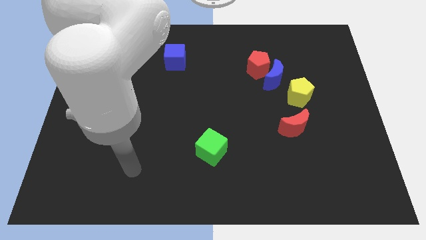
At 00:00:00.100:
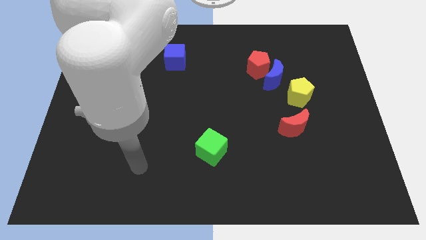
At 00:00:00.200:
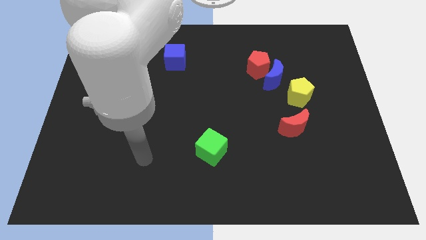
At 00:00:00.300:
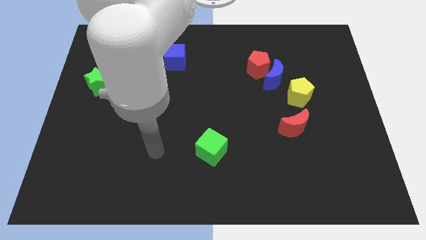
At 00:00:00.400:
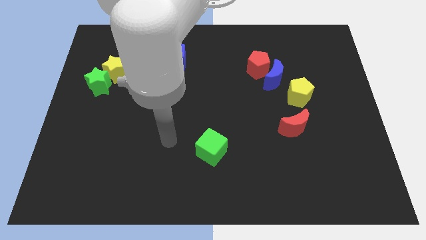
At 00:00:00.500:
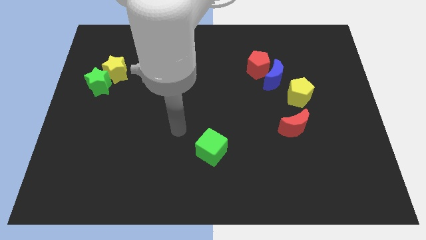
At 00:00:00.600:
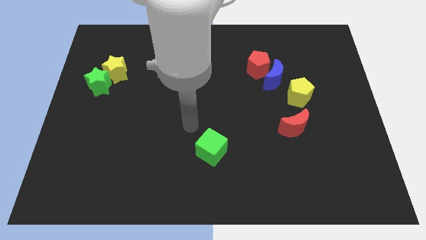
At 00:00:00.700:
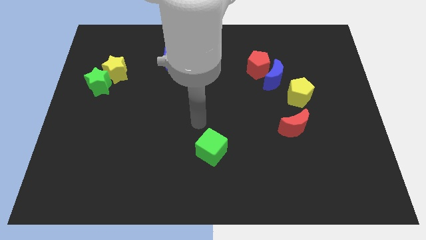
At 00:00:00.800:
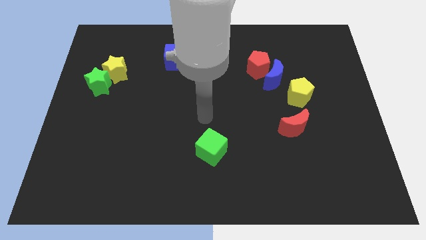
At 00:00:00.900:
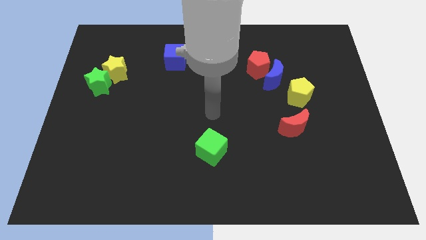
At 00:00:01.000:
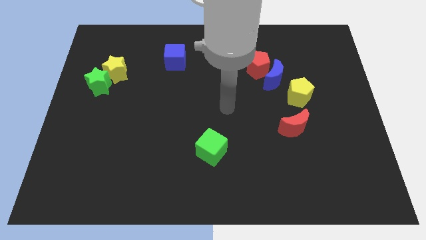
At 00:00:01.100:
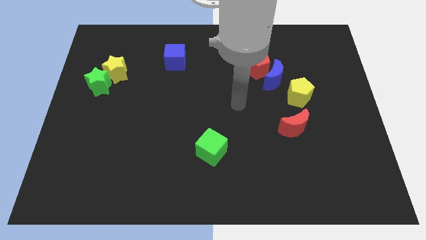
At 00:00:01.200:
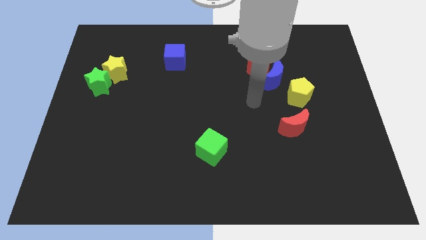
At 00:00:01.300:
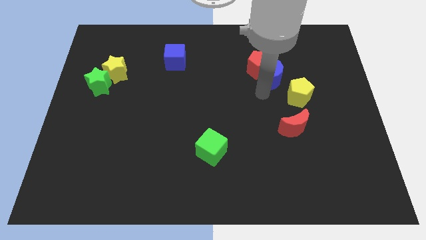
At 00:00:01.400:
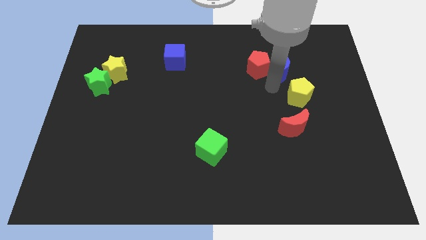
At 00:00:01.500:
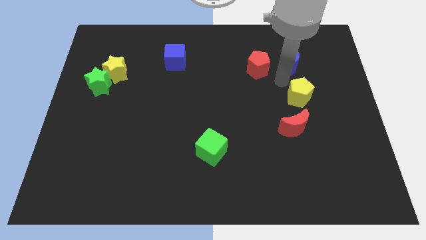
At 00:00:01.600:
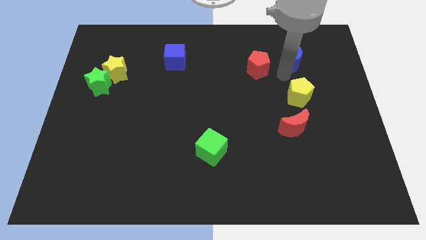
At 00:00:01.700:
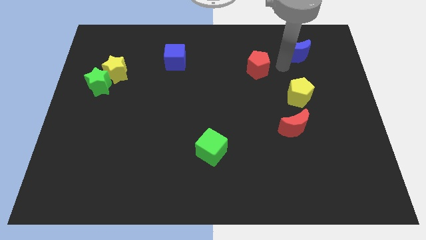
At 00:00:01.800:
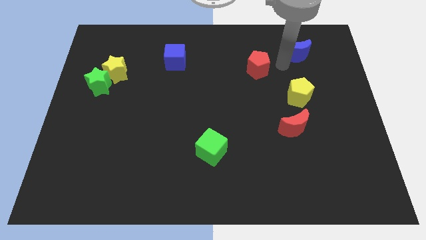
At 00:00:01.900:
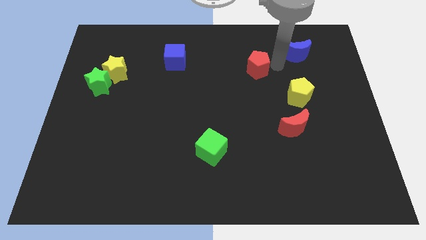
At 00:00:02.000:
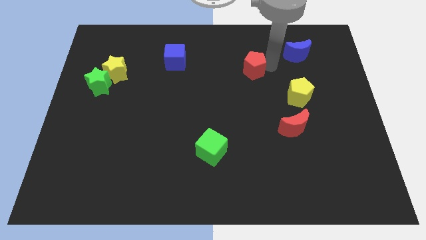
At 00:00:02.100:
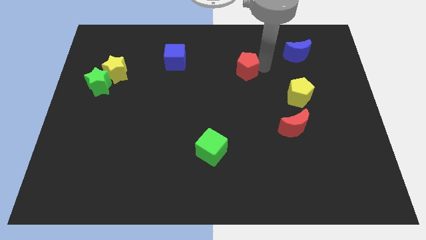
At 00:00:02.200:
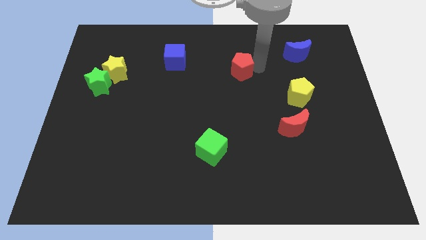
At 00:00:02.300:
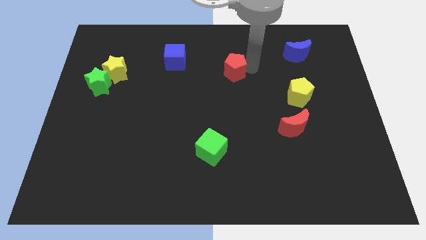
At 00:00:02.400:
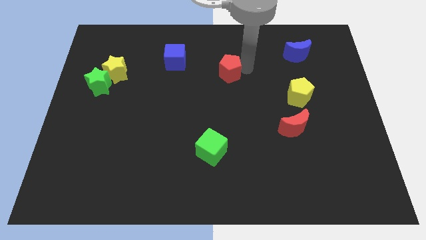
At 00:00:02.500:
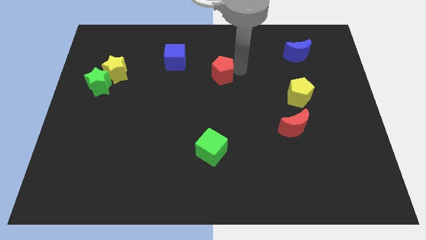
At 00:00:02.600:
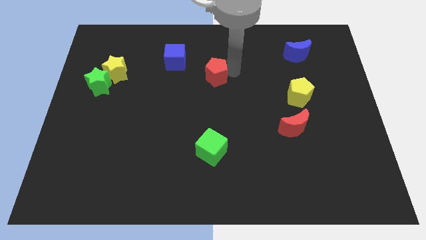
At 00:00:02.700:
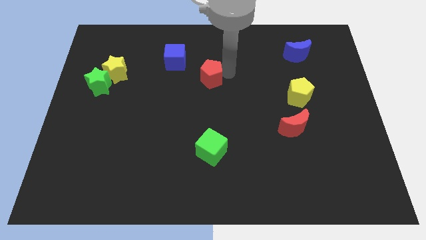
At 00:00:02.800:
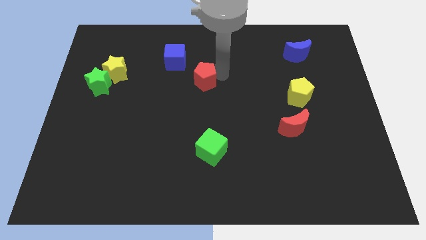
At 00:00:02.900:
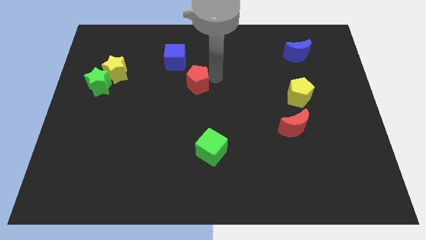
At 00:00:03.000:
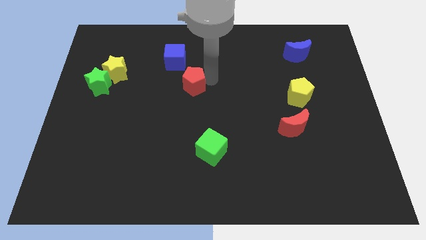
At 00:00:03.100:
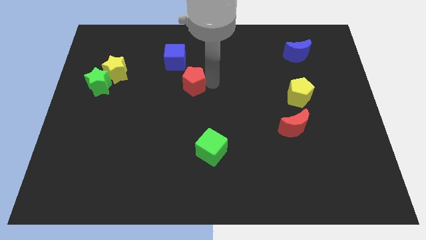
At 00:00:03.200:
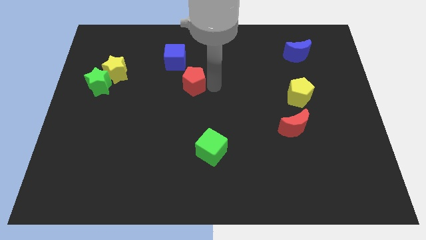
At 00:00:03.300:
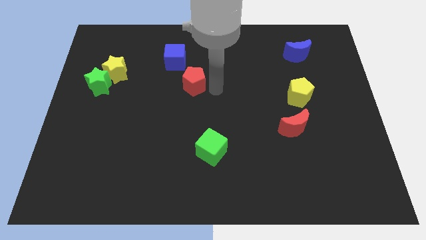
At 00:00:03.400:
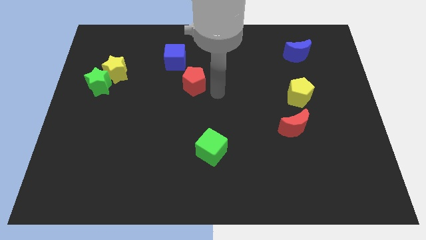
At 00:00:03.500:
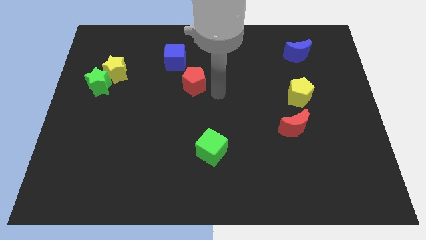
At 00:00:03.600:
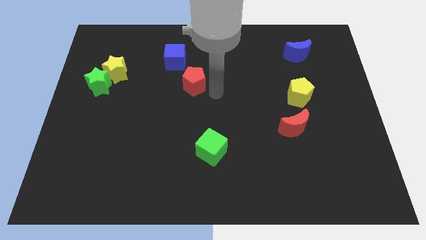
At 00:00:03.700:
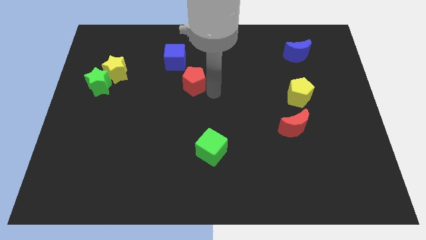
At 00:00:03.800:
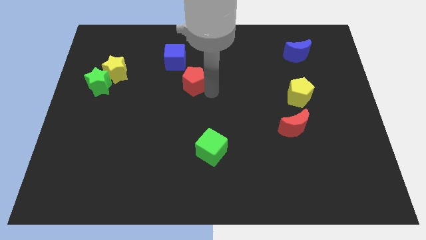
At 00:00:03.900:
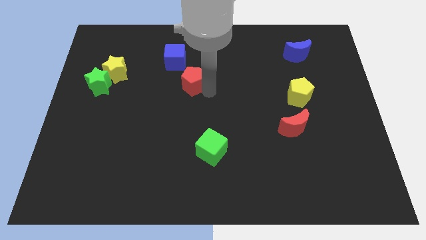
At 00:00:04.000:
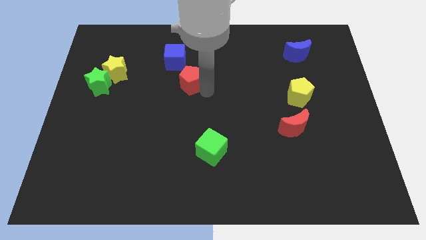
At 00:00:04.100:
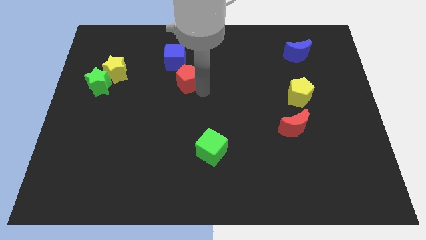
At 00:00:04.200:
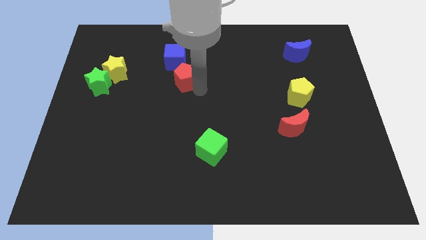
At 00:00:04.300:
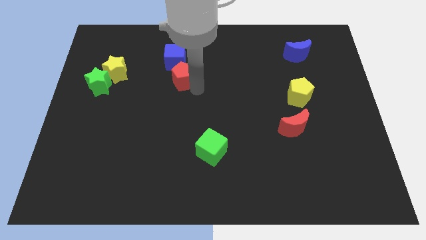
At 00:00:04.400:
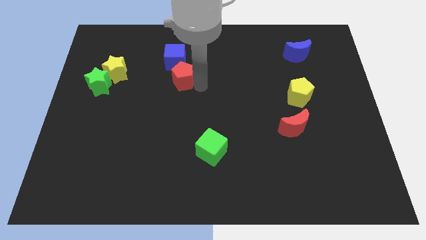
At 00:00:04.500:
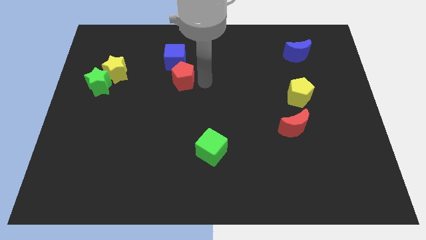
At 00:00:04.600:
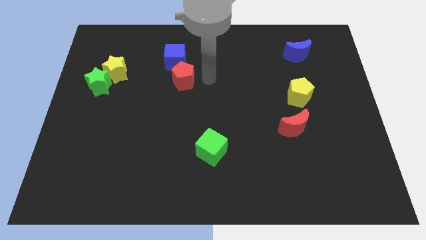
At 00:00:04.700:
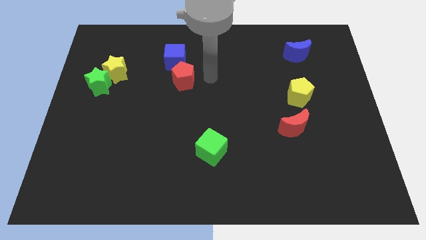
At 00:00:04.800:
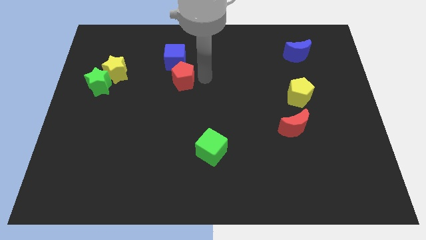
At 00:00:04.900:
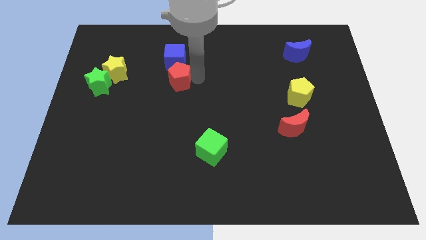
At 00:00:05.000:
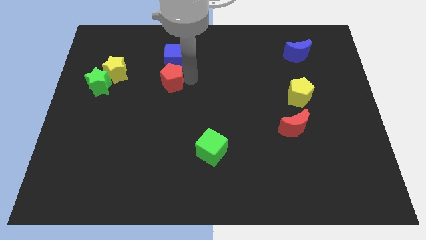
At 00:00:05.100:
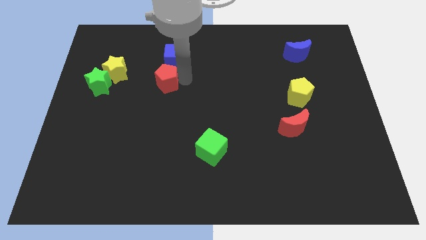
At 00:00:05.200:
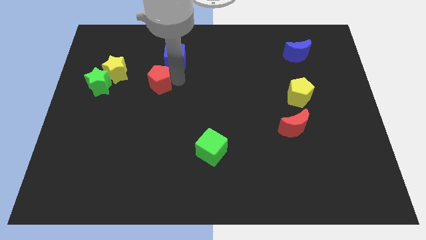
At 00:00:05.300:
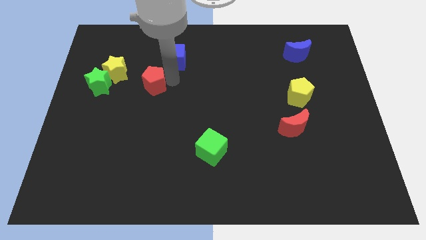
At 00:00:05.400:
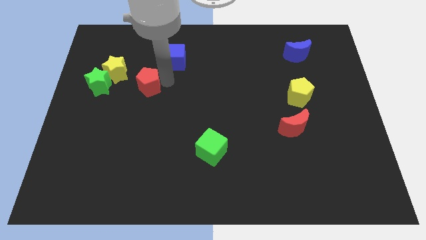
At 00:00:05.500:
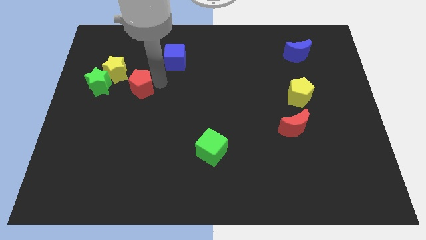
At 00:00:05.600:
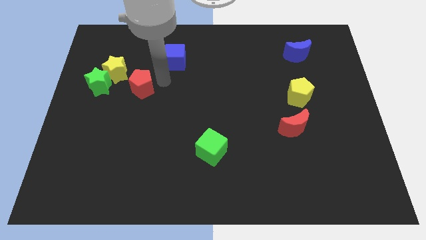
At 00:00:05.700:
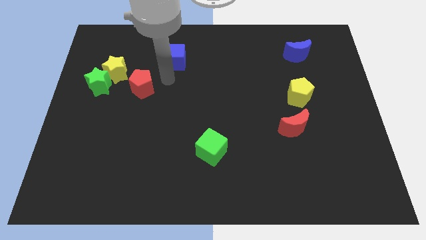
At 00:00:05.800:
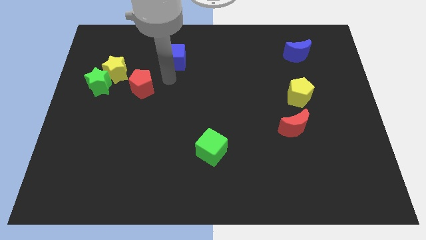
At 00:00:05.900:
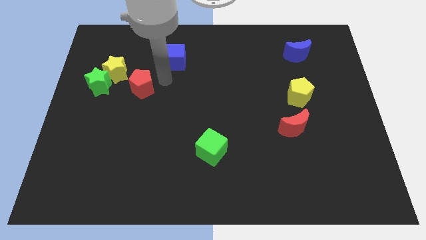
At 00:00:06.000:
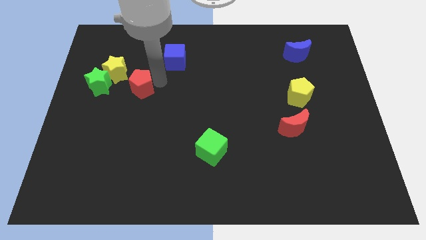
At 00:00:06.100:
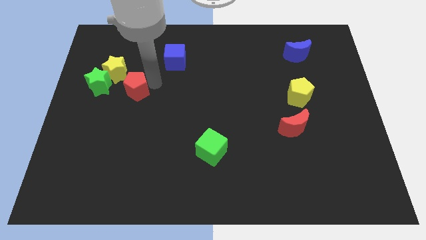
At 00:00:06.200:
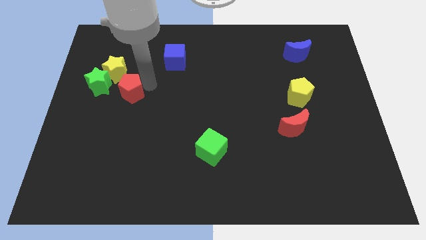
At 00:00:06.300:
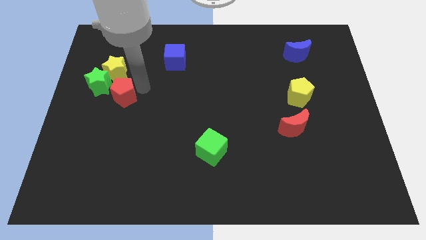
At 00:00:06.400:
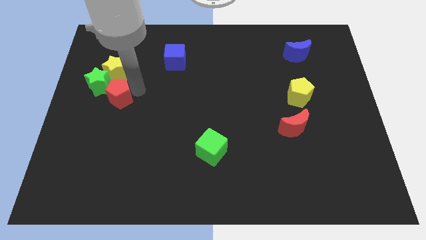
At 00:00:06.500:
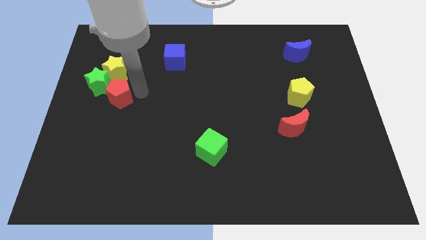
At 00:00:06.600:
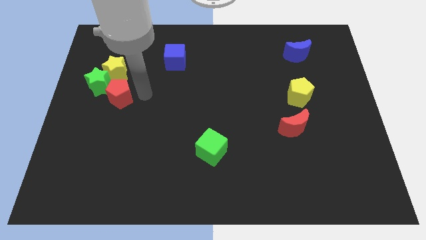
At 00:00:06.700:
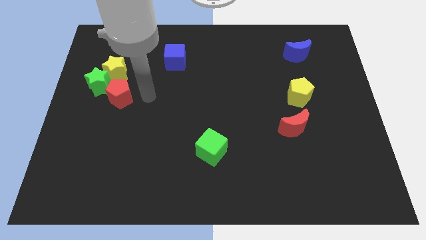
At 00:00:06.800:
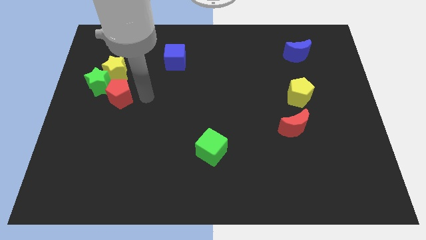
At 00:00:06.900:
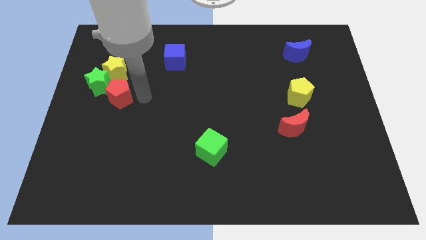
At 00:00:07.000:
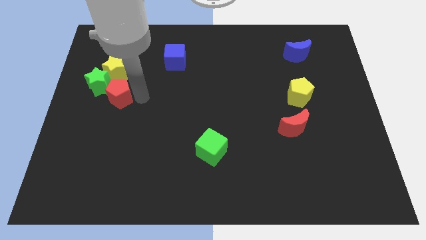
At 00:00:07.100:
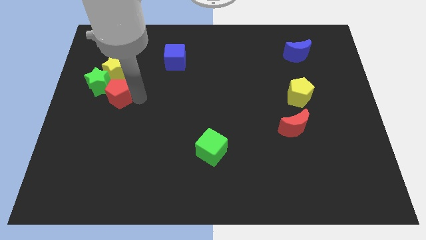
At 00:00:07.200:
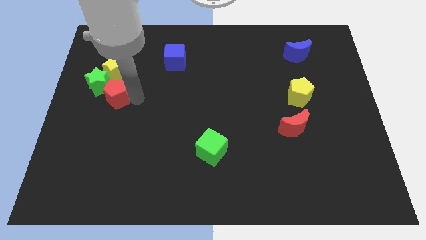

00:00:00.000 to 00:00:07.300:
push the red pentagon to the green star
